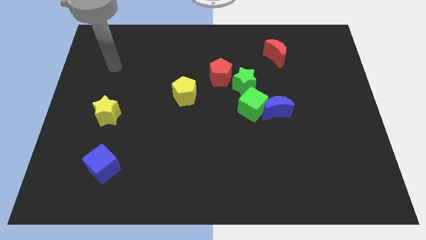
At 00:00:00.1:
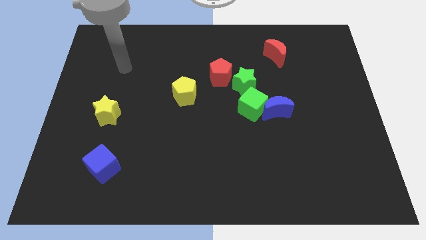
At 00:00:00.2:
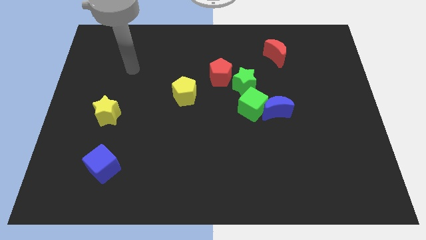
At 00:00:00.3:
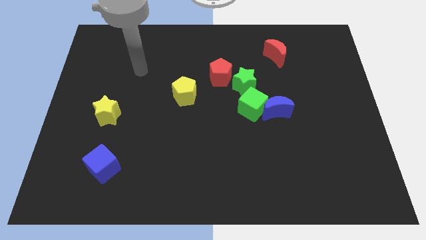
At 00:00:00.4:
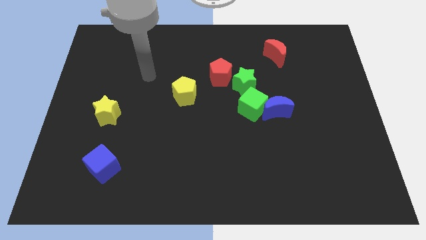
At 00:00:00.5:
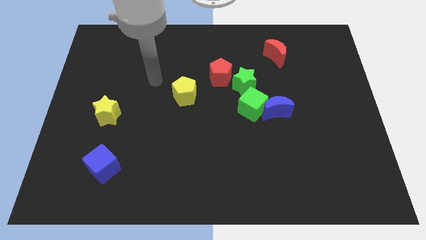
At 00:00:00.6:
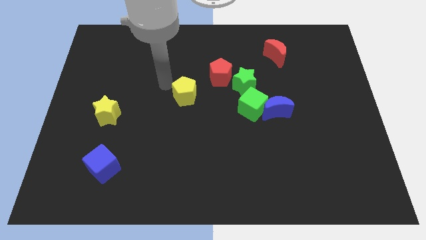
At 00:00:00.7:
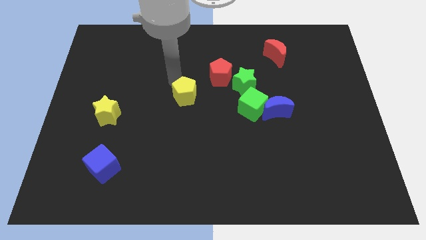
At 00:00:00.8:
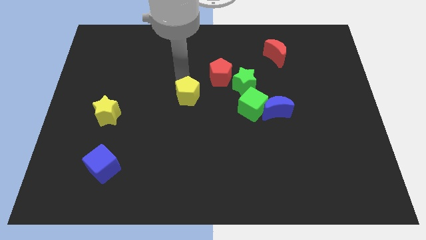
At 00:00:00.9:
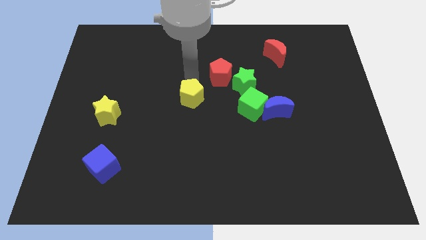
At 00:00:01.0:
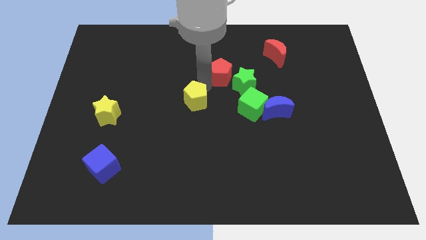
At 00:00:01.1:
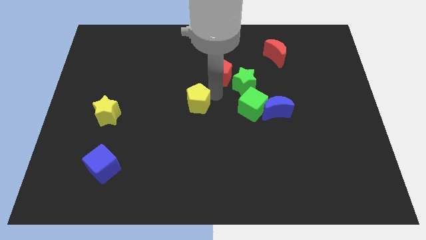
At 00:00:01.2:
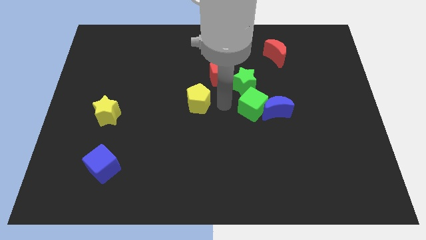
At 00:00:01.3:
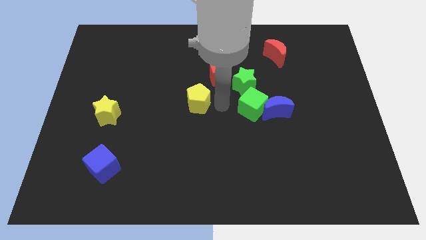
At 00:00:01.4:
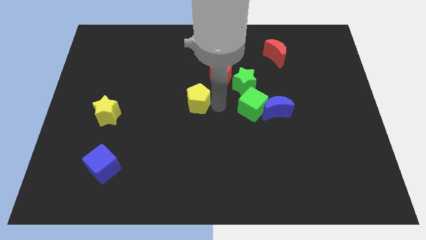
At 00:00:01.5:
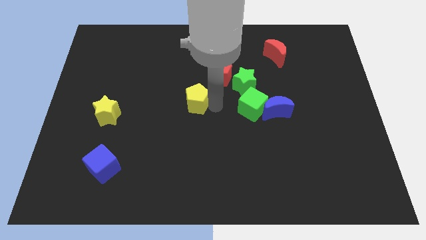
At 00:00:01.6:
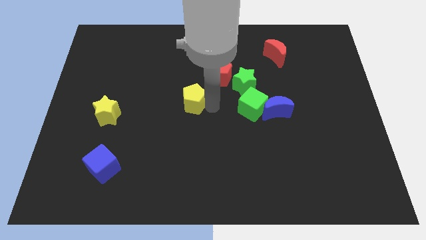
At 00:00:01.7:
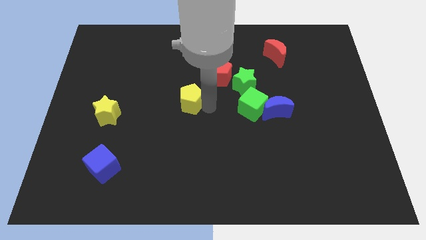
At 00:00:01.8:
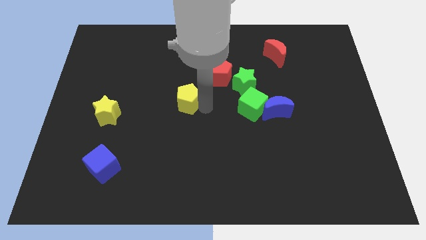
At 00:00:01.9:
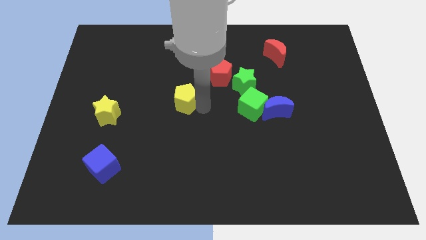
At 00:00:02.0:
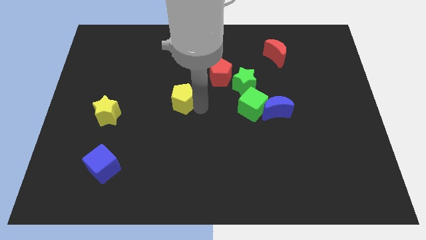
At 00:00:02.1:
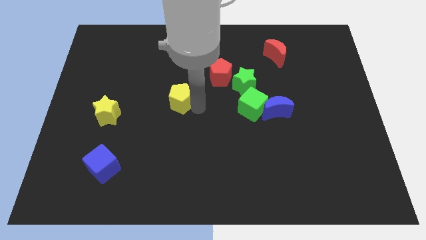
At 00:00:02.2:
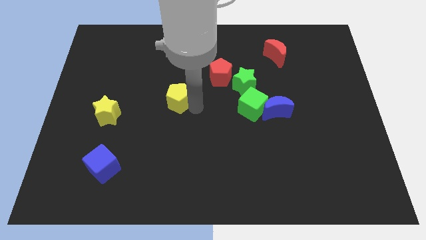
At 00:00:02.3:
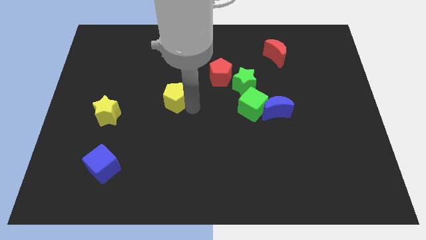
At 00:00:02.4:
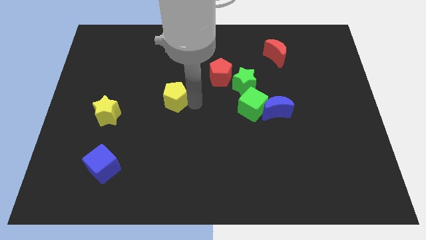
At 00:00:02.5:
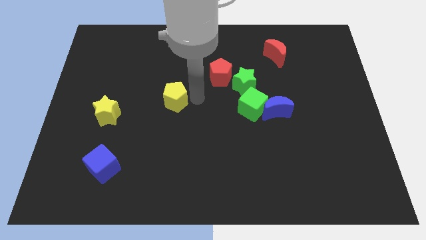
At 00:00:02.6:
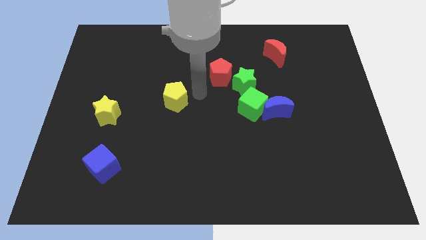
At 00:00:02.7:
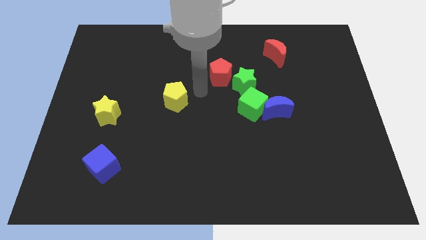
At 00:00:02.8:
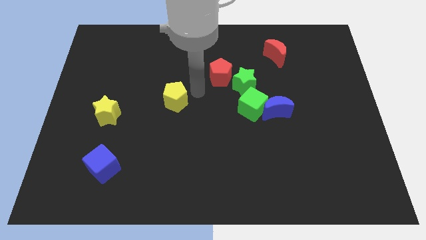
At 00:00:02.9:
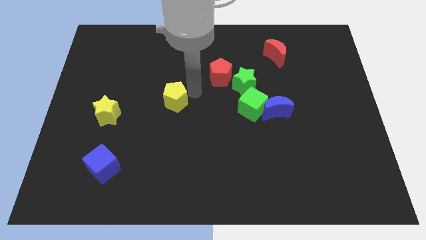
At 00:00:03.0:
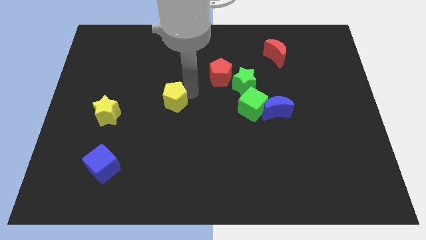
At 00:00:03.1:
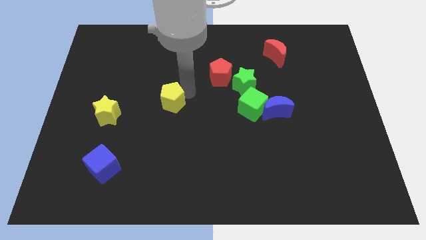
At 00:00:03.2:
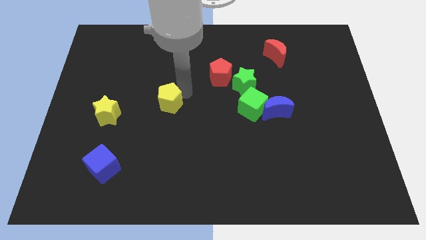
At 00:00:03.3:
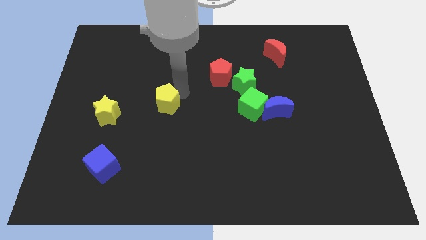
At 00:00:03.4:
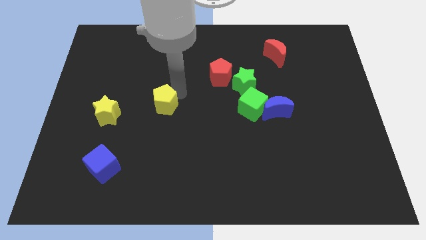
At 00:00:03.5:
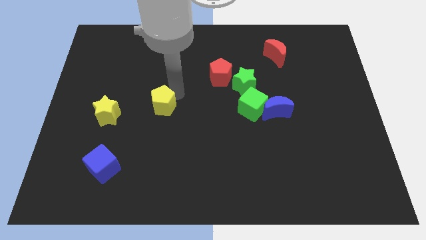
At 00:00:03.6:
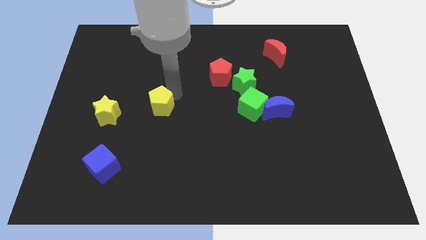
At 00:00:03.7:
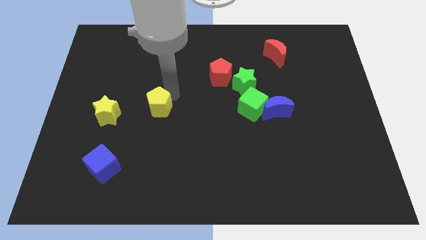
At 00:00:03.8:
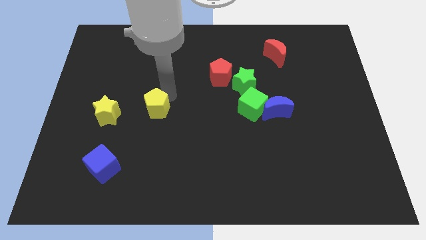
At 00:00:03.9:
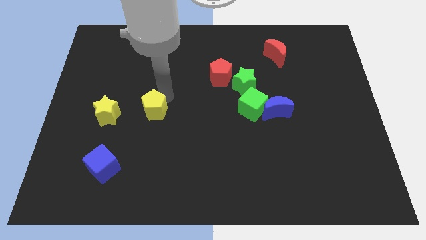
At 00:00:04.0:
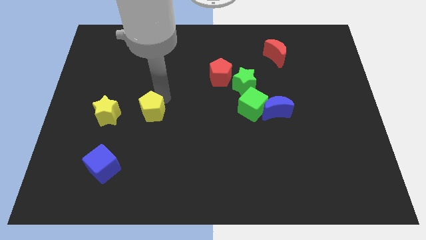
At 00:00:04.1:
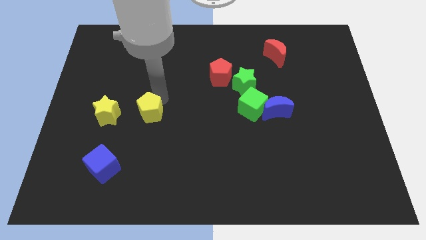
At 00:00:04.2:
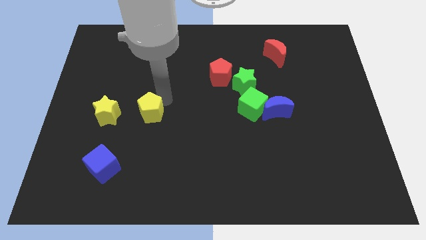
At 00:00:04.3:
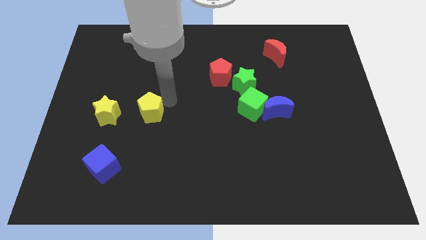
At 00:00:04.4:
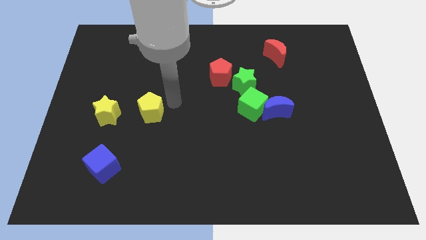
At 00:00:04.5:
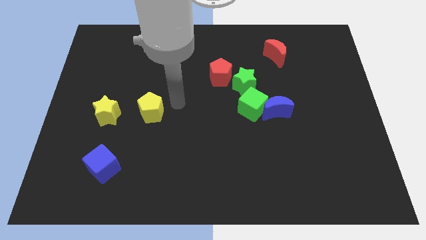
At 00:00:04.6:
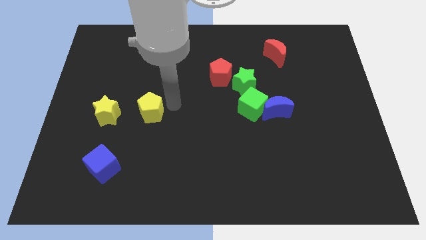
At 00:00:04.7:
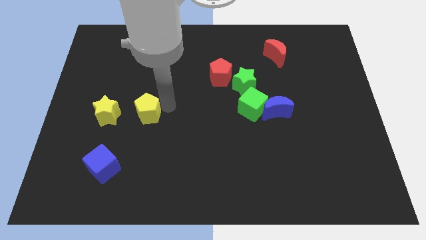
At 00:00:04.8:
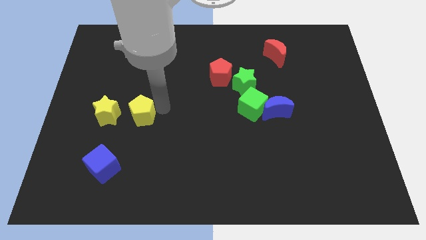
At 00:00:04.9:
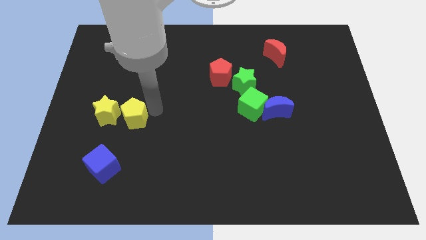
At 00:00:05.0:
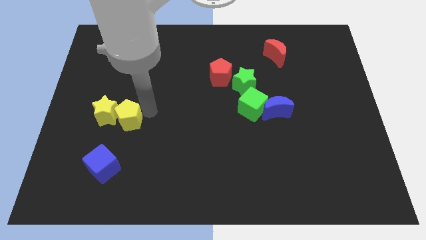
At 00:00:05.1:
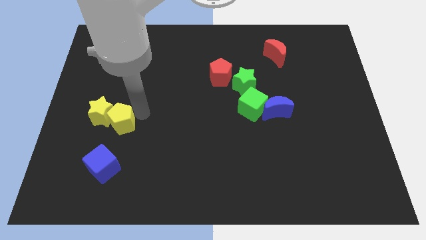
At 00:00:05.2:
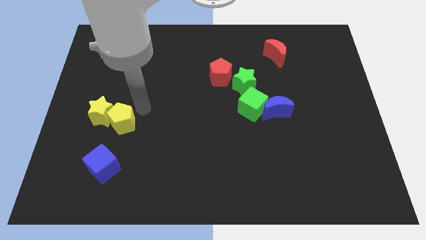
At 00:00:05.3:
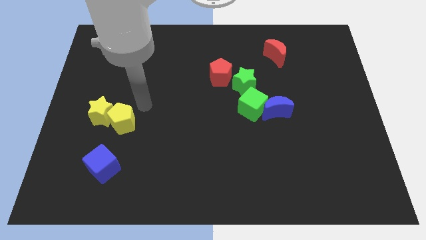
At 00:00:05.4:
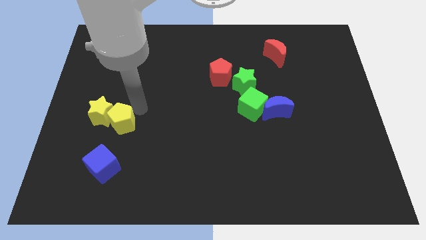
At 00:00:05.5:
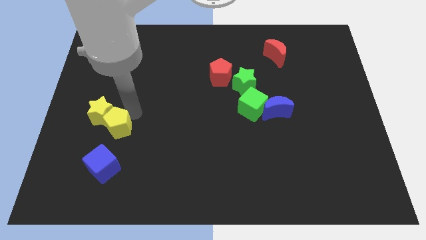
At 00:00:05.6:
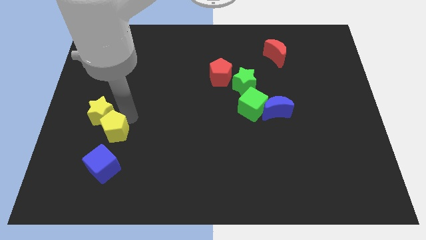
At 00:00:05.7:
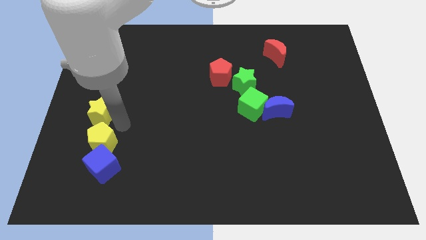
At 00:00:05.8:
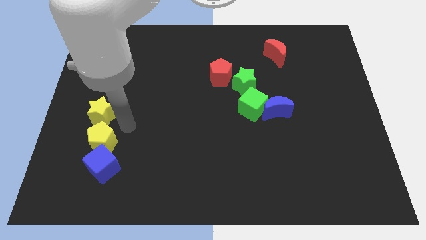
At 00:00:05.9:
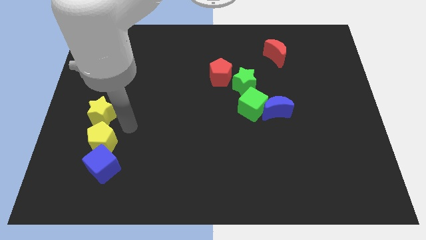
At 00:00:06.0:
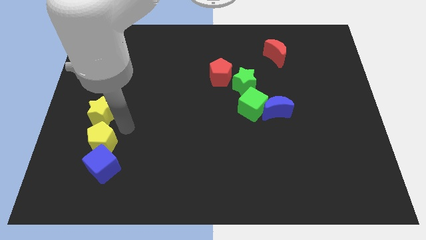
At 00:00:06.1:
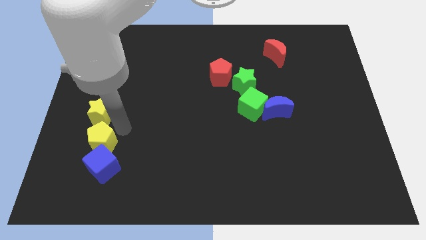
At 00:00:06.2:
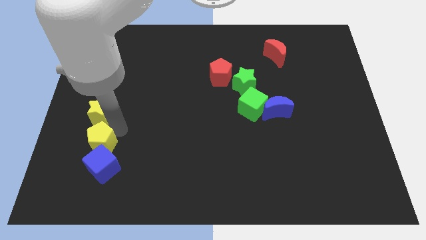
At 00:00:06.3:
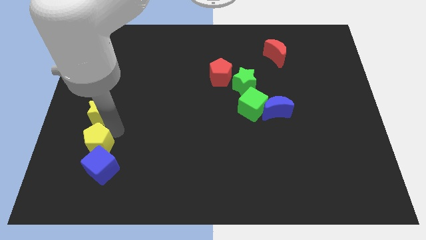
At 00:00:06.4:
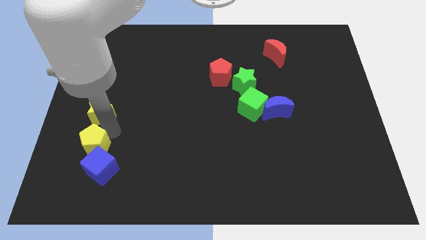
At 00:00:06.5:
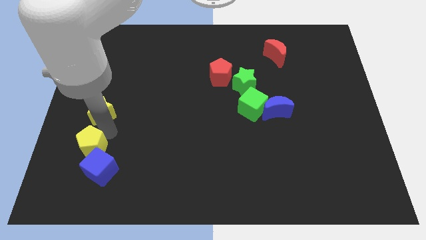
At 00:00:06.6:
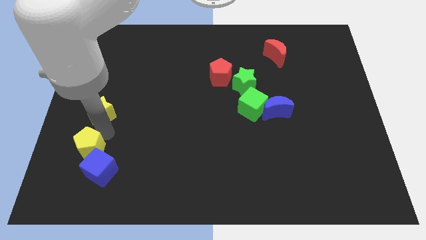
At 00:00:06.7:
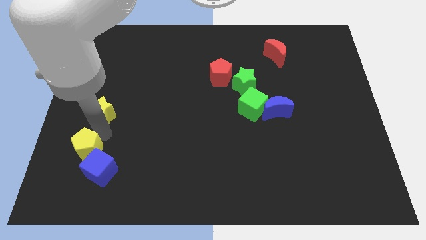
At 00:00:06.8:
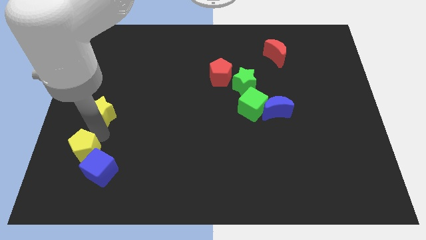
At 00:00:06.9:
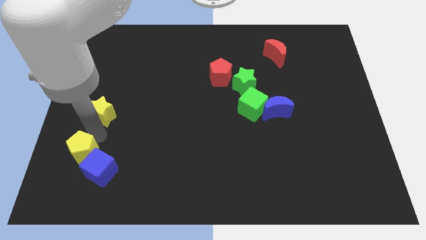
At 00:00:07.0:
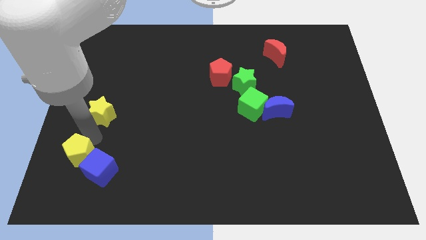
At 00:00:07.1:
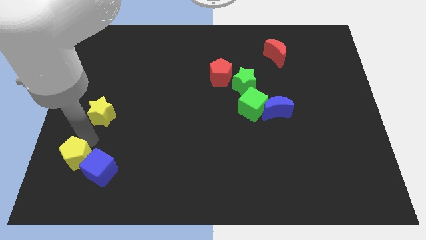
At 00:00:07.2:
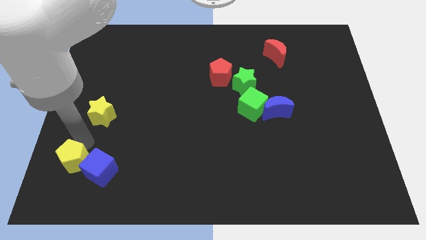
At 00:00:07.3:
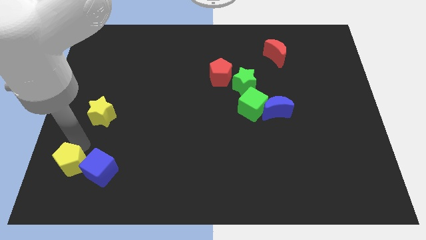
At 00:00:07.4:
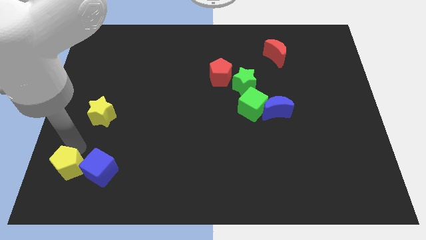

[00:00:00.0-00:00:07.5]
move the yellow pentagon to the bottom left
